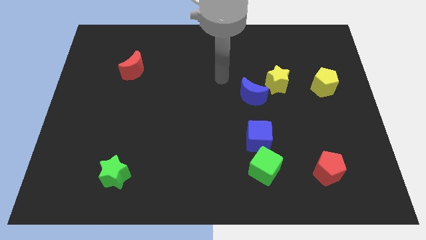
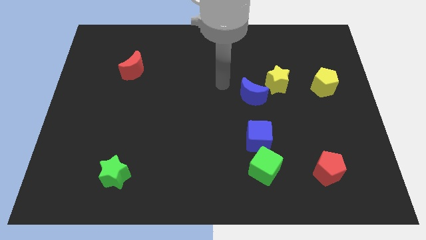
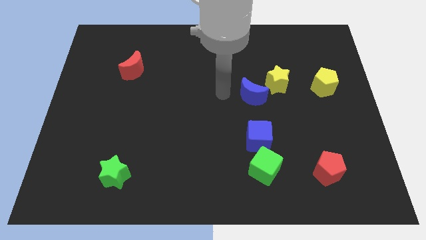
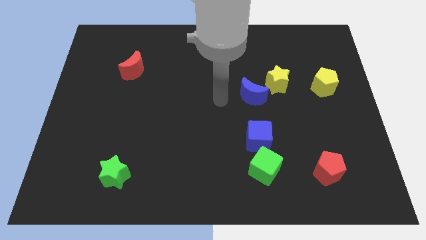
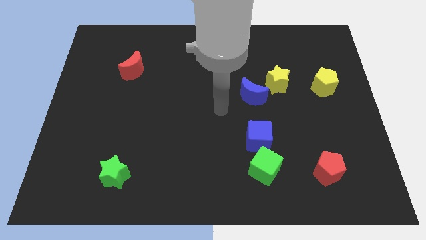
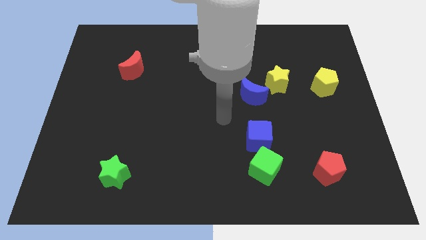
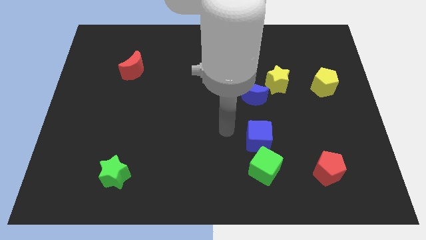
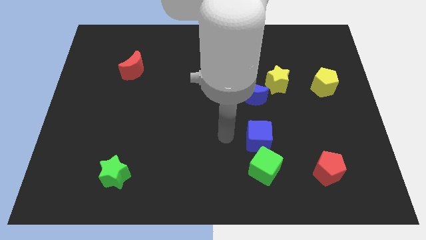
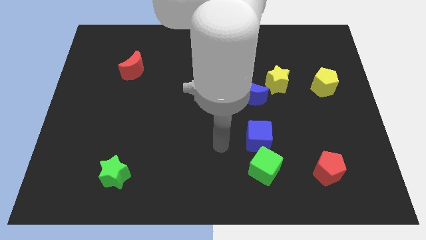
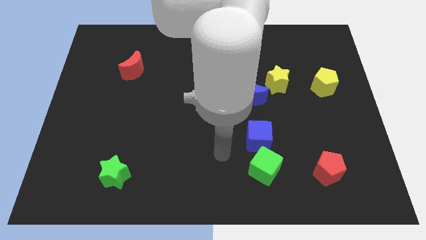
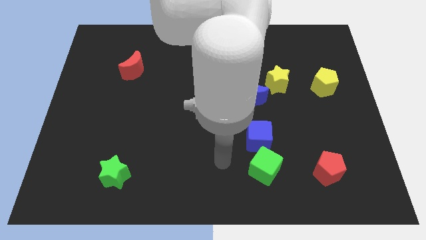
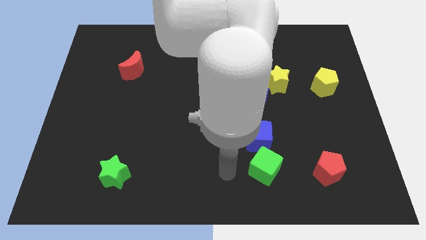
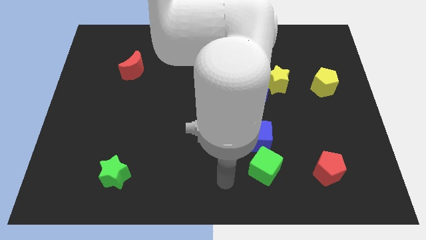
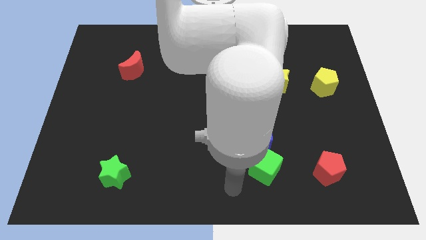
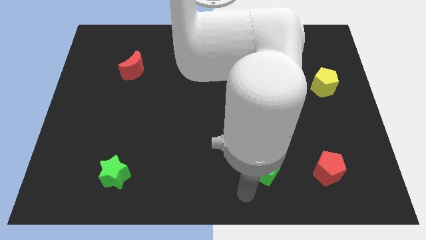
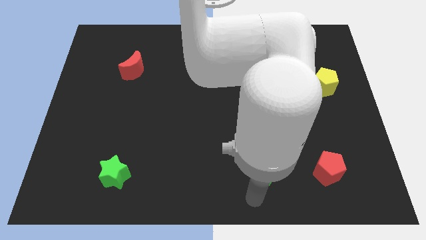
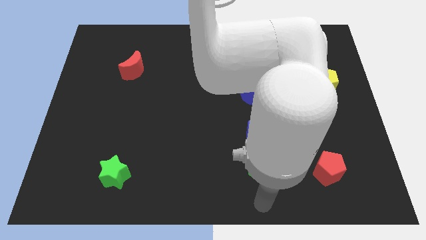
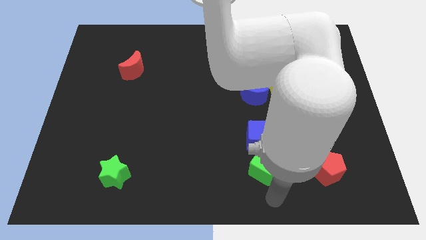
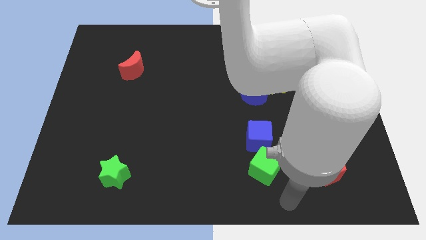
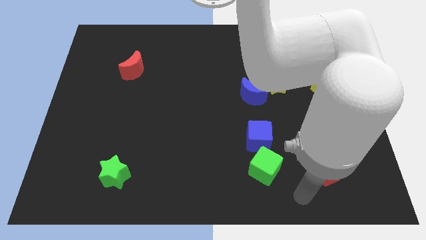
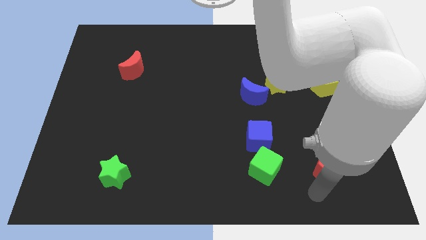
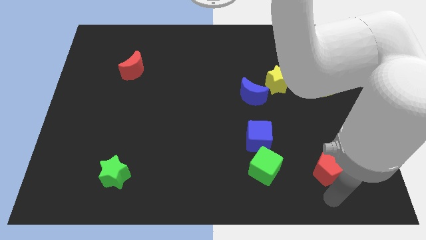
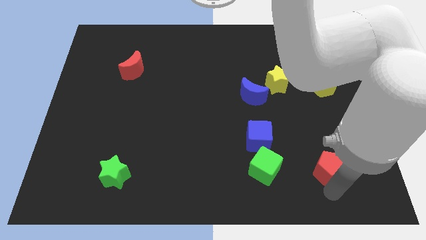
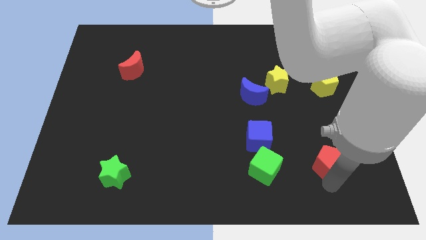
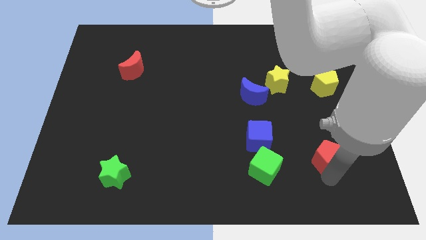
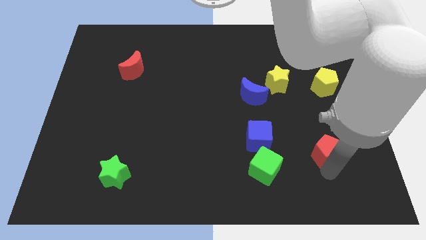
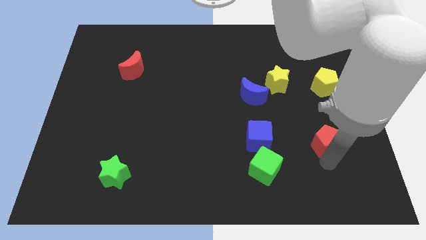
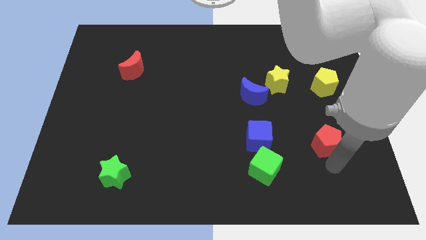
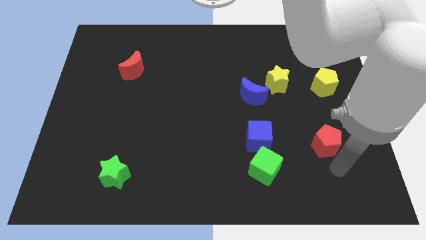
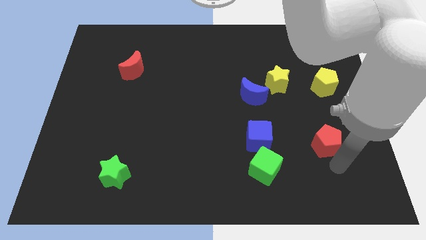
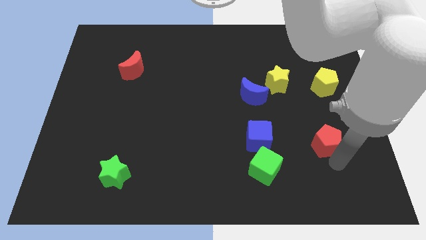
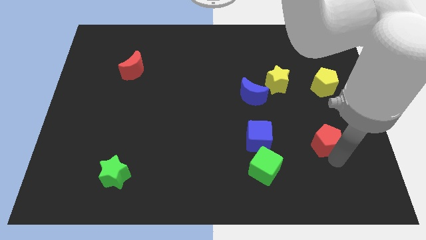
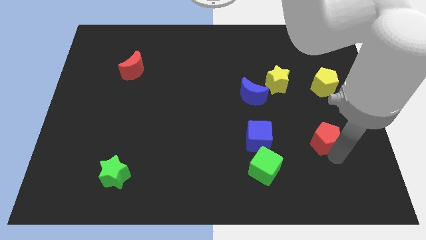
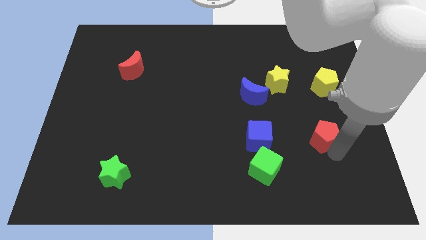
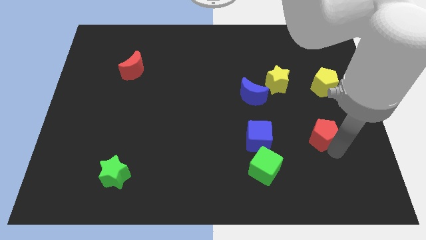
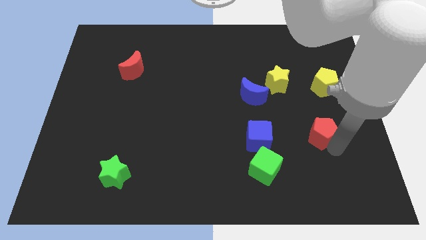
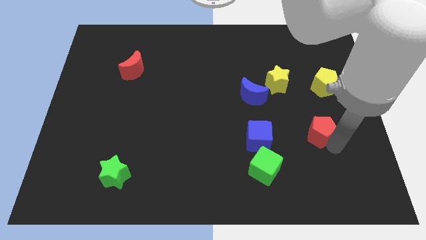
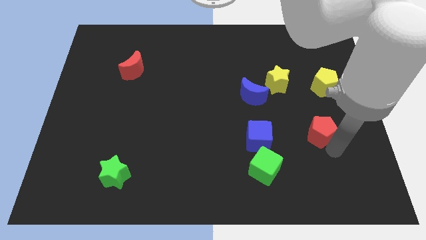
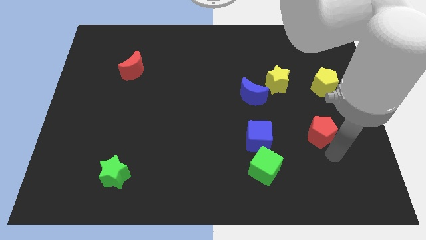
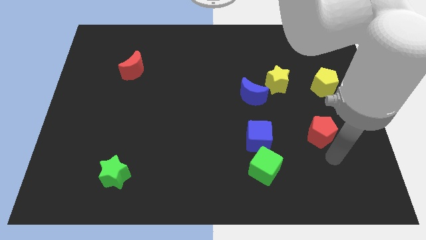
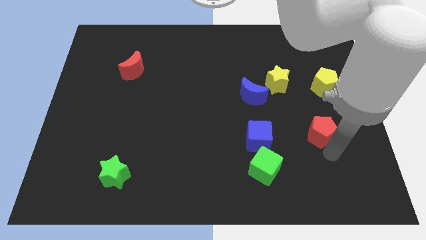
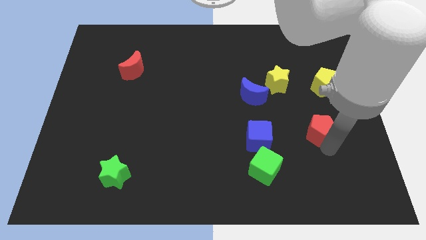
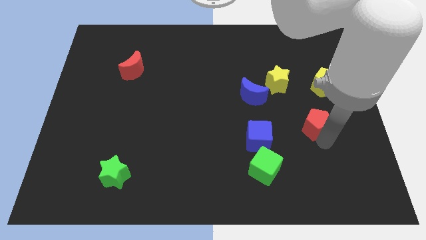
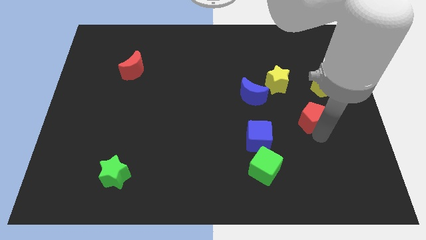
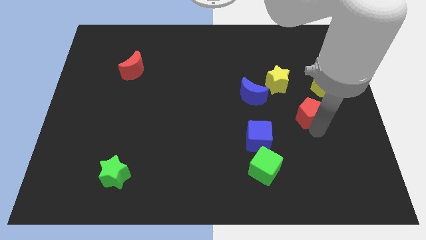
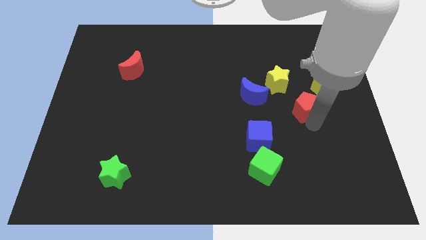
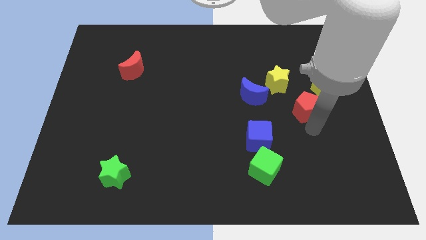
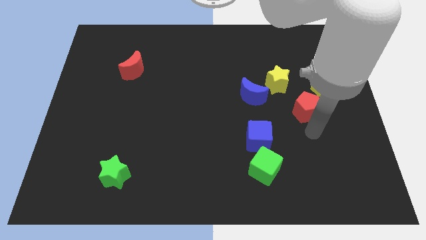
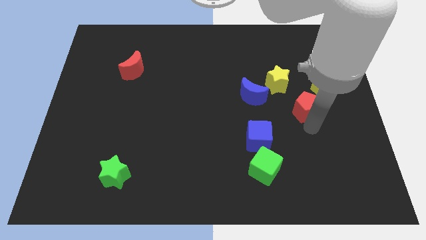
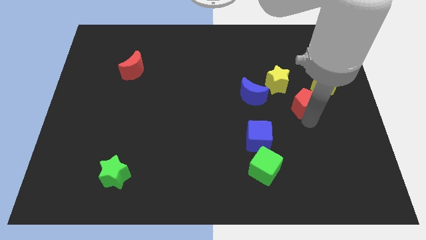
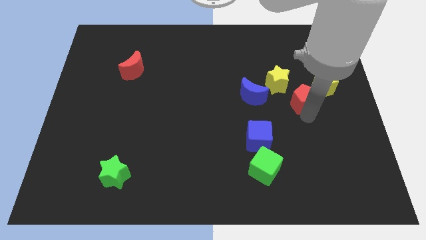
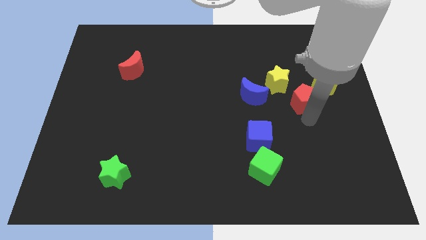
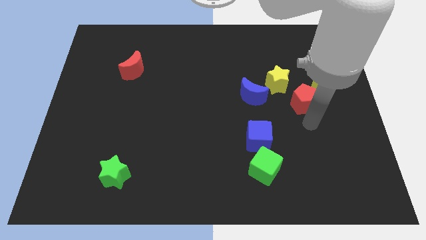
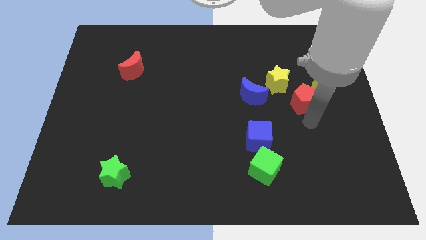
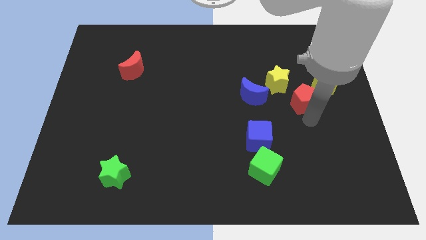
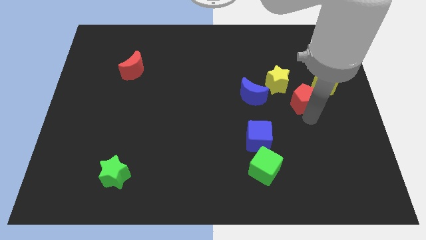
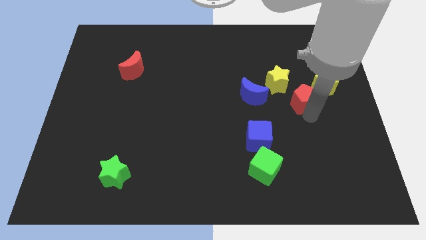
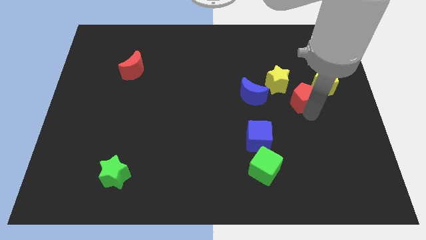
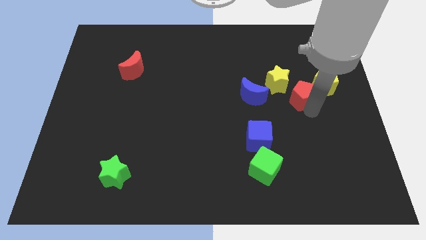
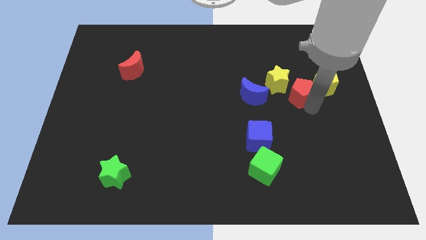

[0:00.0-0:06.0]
push the red pentagon upwards

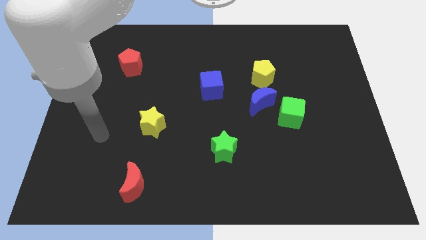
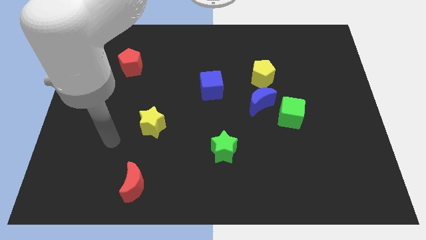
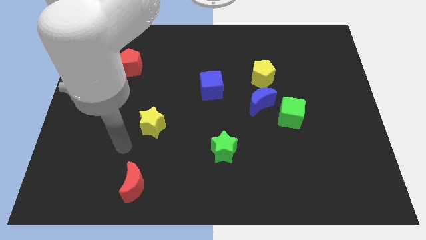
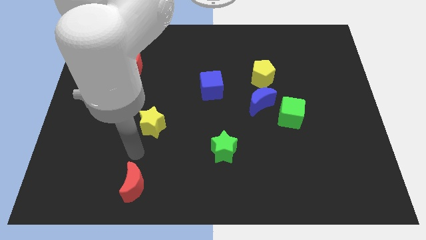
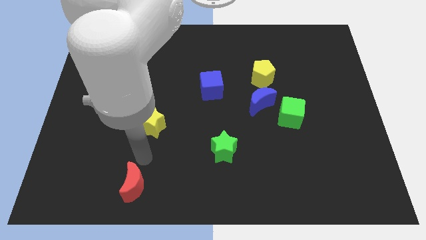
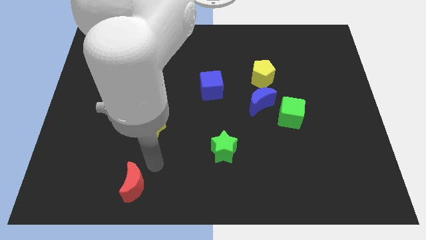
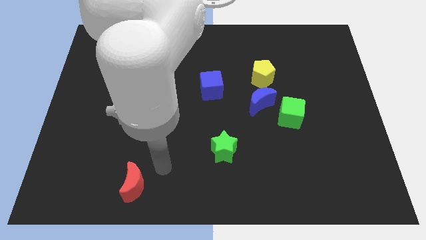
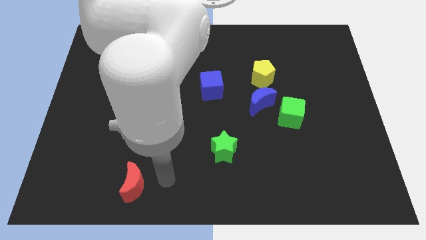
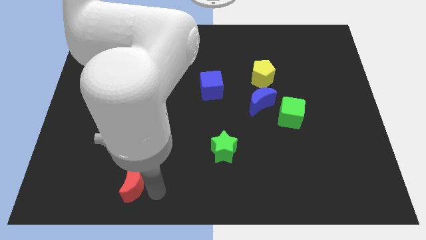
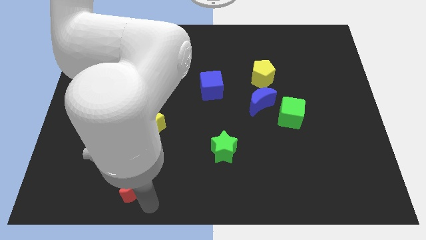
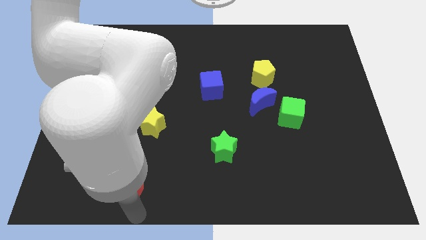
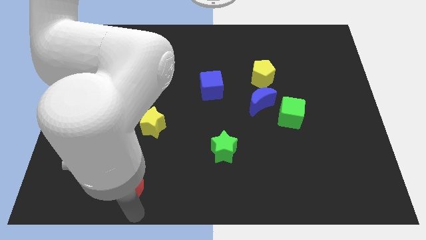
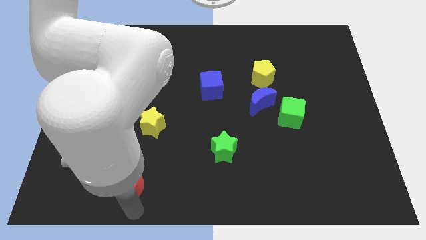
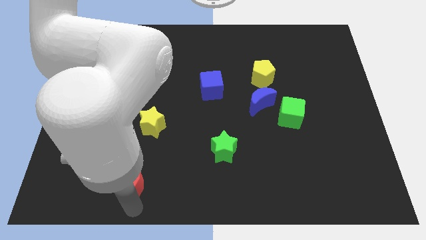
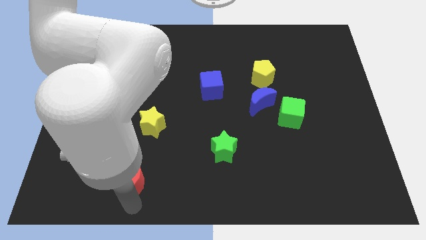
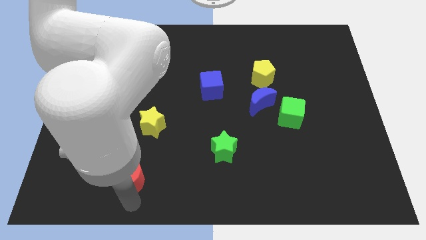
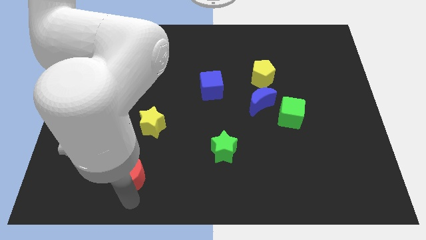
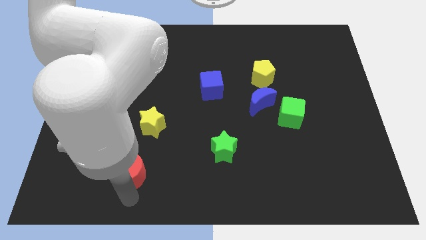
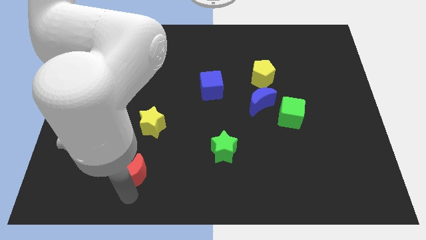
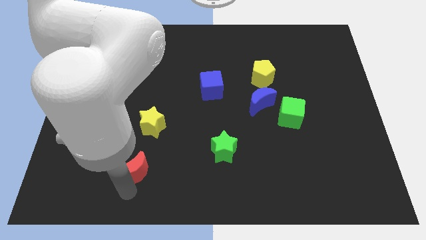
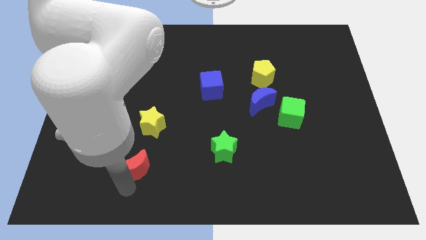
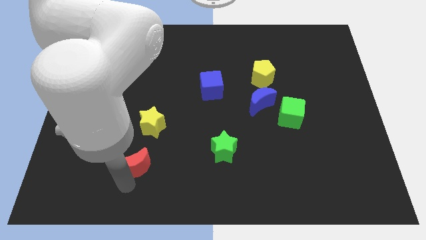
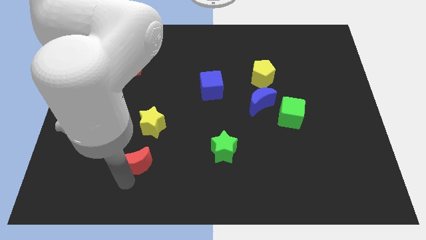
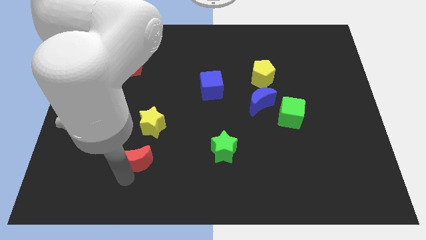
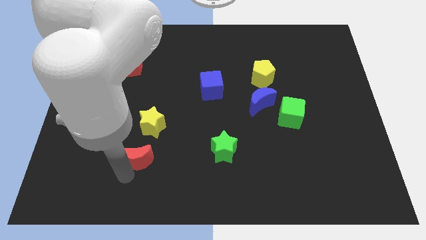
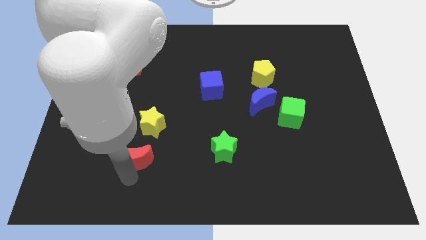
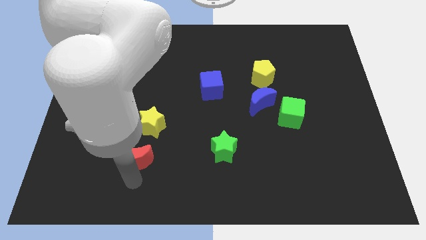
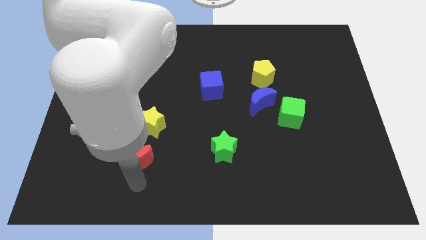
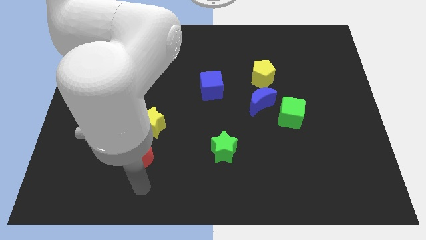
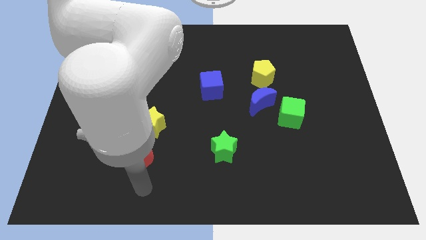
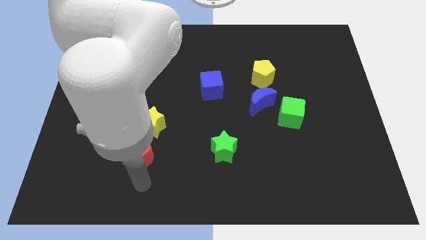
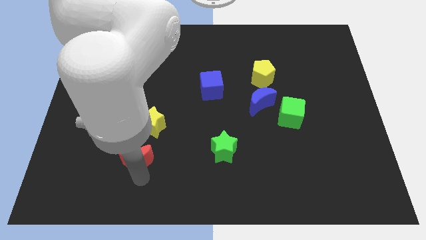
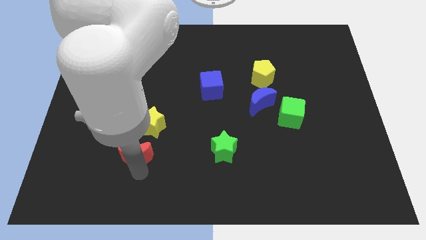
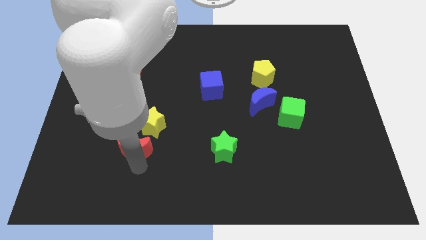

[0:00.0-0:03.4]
slightly slide the red moon up
